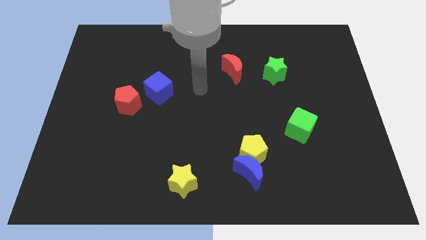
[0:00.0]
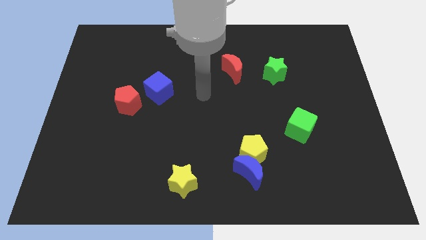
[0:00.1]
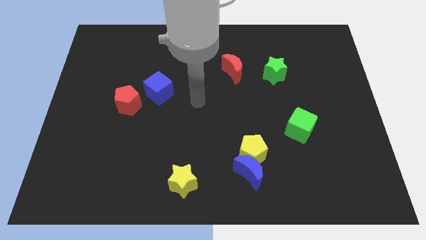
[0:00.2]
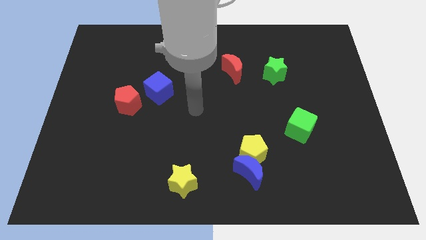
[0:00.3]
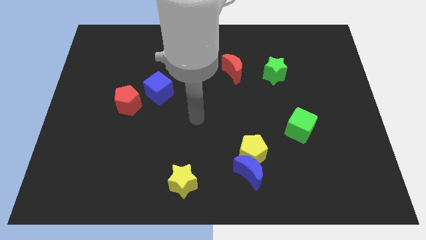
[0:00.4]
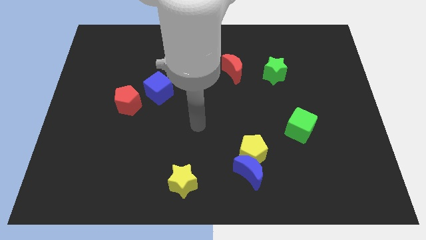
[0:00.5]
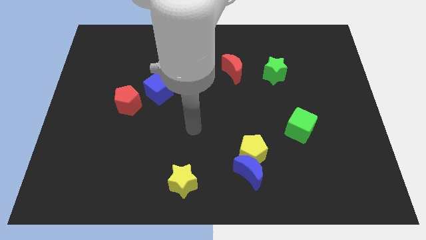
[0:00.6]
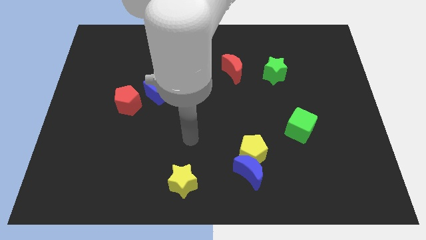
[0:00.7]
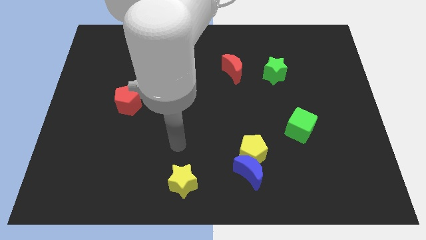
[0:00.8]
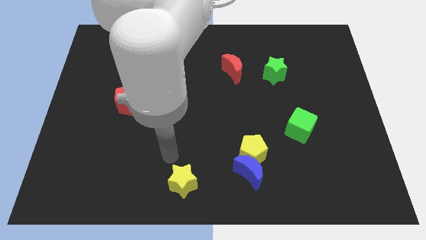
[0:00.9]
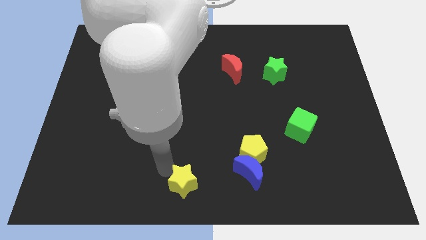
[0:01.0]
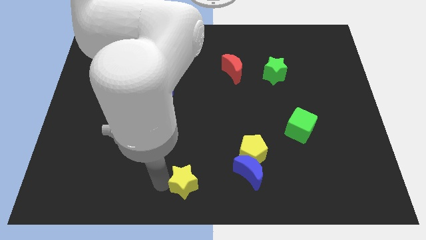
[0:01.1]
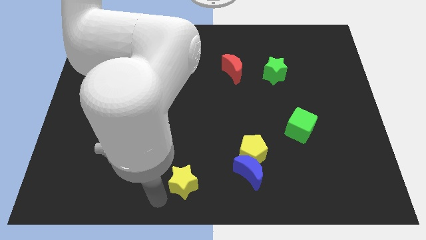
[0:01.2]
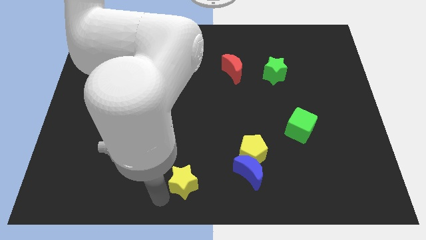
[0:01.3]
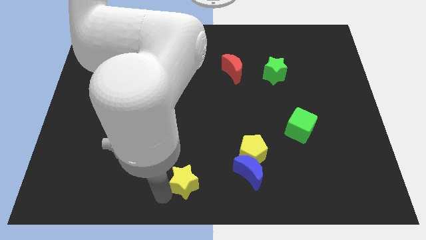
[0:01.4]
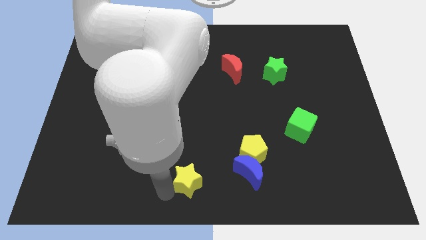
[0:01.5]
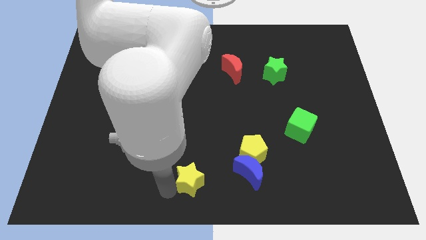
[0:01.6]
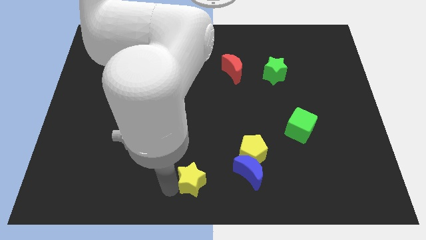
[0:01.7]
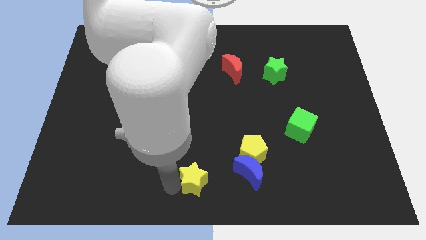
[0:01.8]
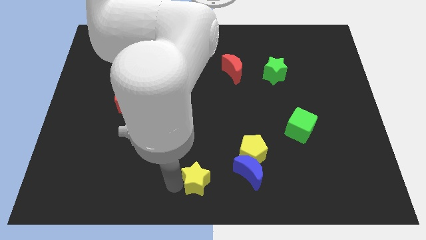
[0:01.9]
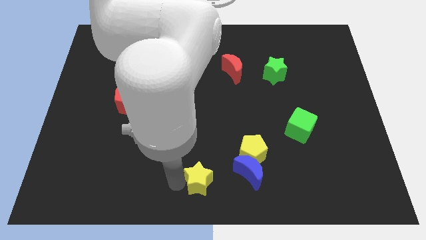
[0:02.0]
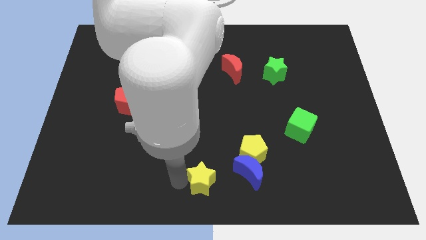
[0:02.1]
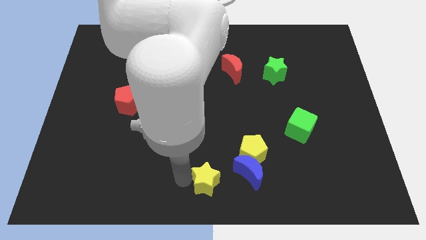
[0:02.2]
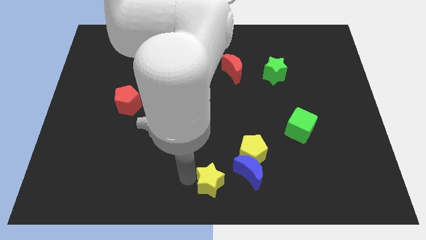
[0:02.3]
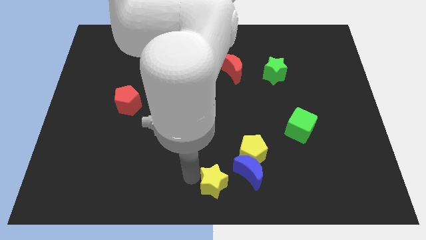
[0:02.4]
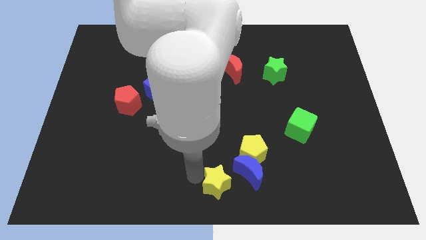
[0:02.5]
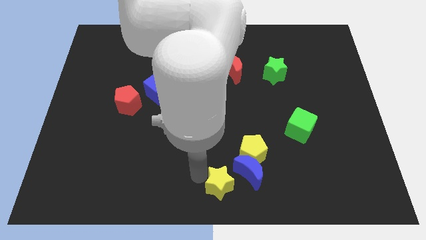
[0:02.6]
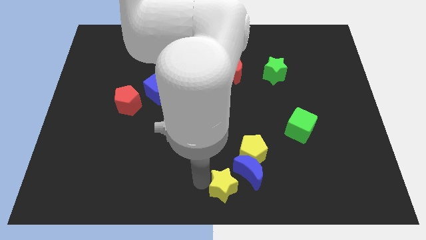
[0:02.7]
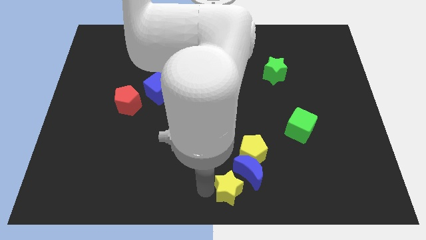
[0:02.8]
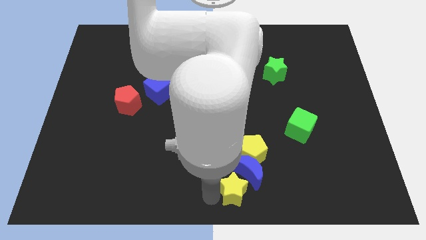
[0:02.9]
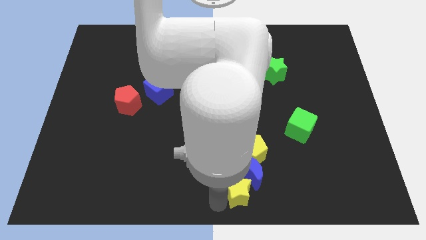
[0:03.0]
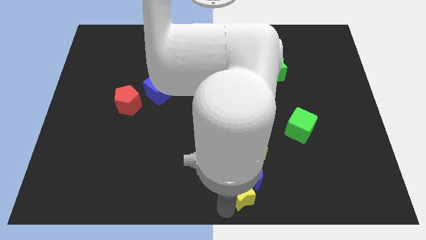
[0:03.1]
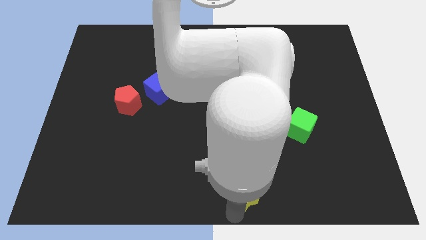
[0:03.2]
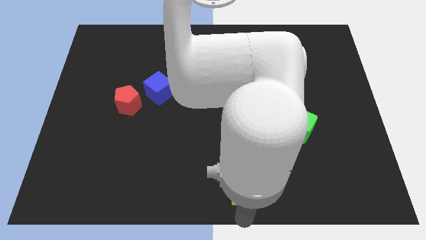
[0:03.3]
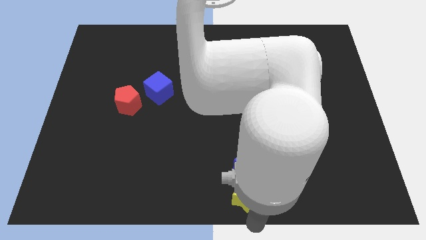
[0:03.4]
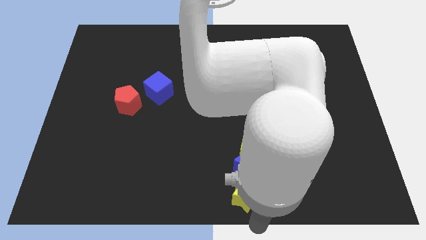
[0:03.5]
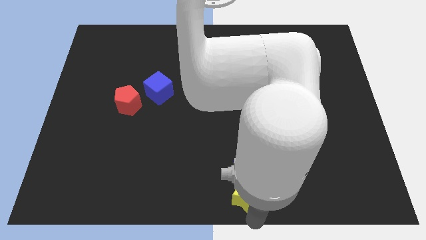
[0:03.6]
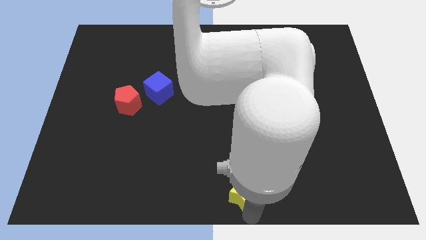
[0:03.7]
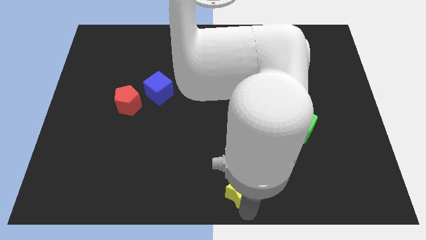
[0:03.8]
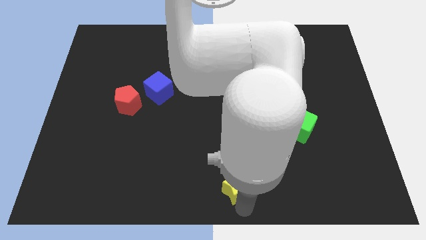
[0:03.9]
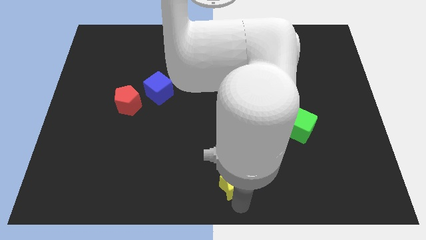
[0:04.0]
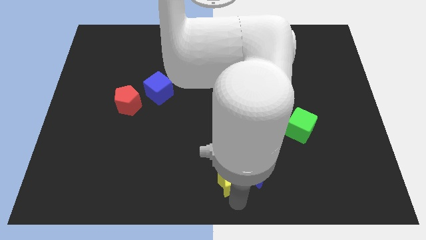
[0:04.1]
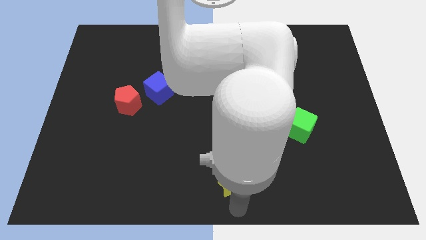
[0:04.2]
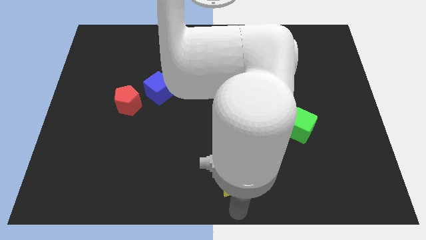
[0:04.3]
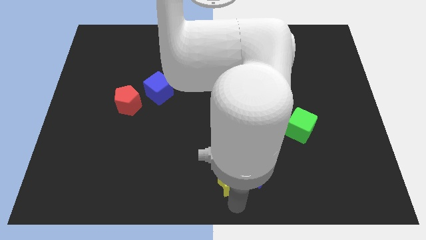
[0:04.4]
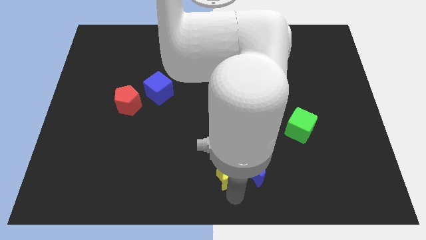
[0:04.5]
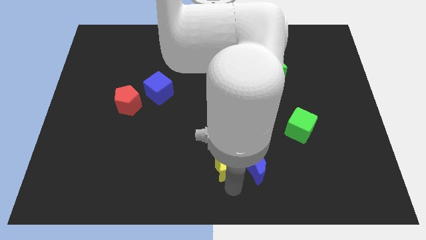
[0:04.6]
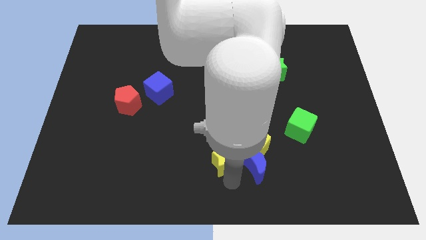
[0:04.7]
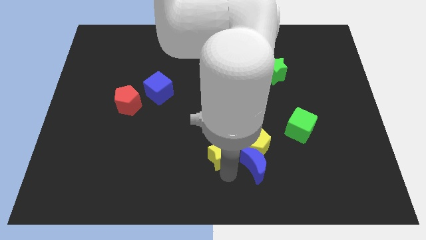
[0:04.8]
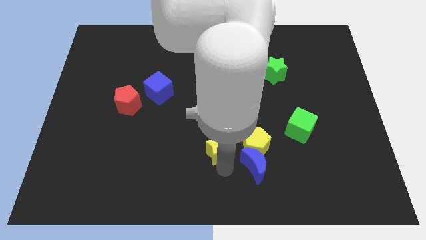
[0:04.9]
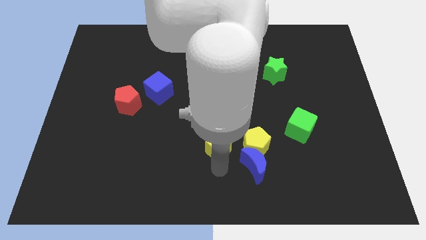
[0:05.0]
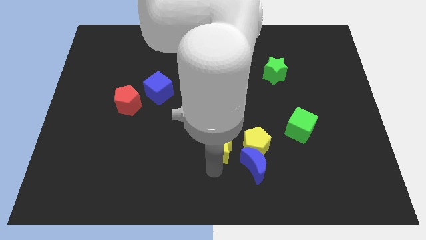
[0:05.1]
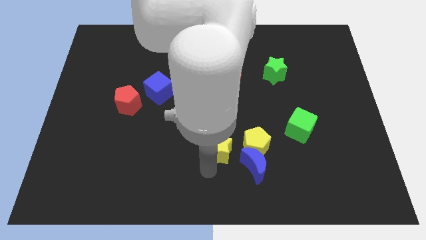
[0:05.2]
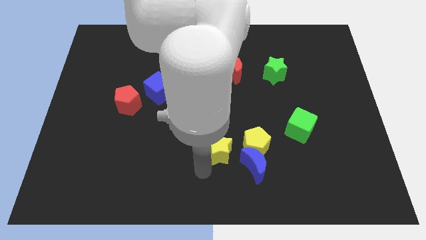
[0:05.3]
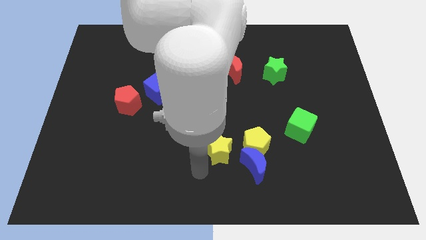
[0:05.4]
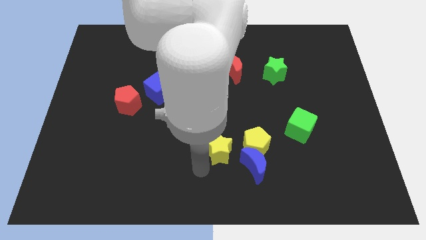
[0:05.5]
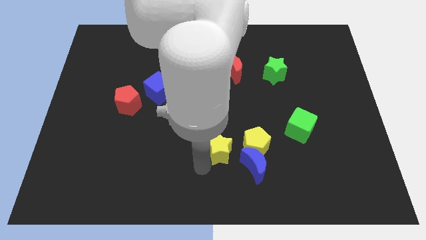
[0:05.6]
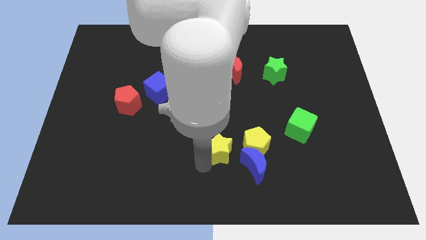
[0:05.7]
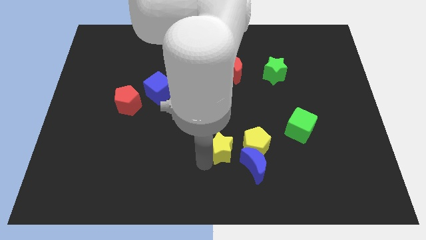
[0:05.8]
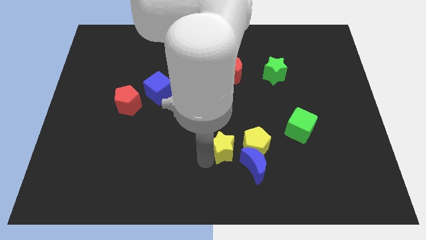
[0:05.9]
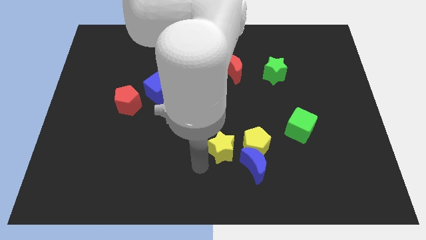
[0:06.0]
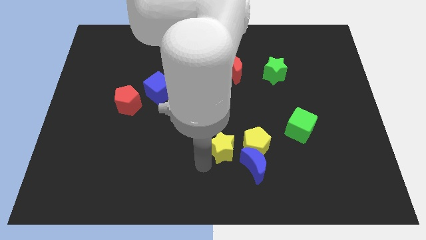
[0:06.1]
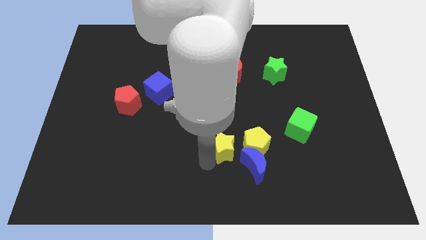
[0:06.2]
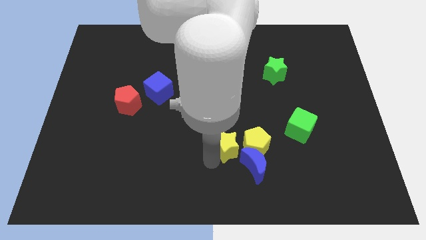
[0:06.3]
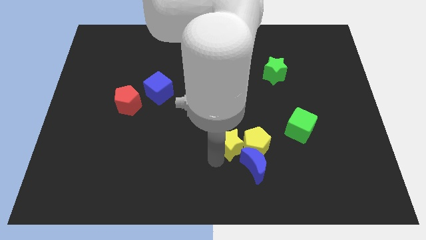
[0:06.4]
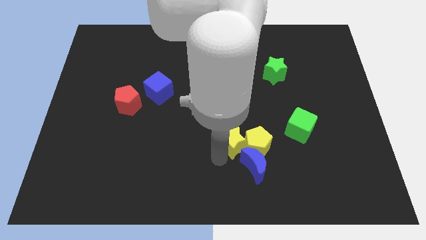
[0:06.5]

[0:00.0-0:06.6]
slide the yellow star to the top side of the blue moon
